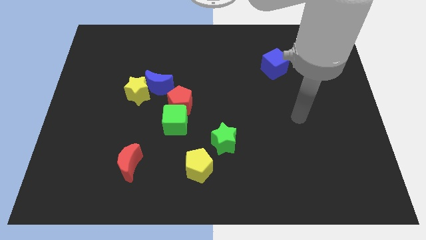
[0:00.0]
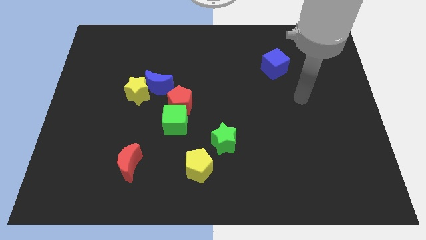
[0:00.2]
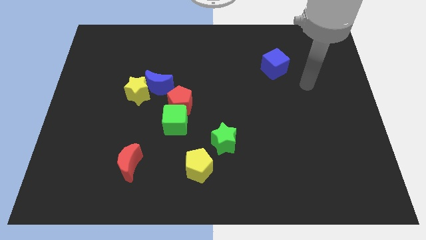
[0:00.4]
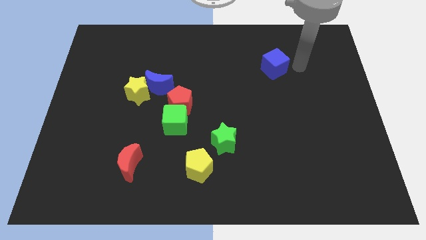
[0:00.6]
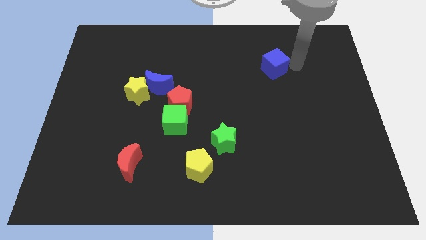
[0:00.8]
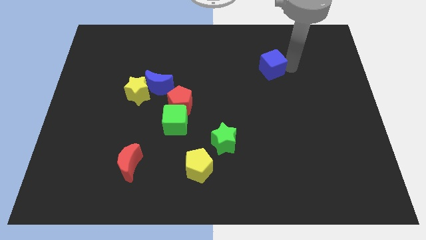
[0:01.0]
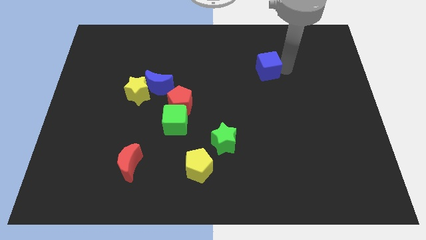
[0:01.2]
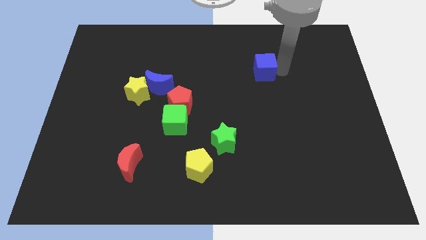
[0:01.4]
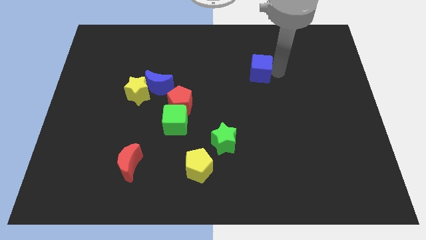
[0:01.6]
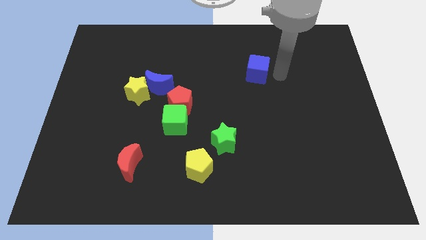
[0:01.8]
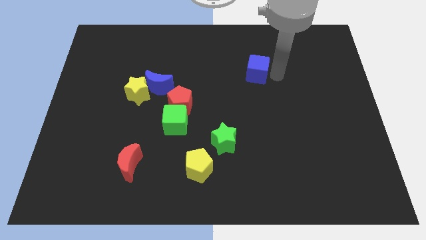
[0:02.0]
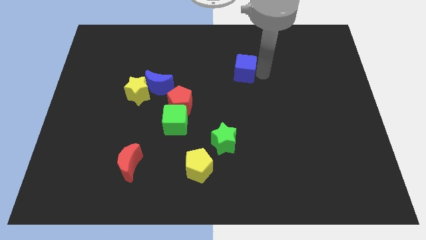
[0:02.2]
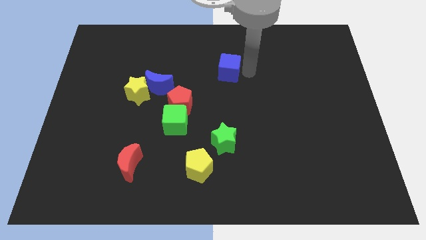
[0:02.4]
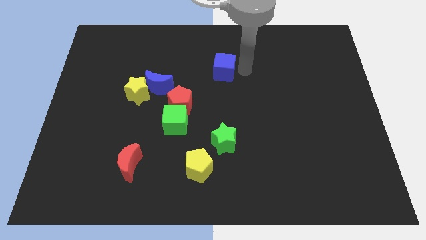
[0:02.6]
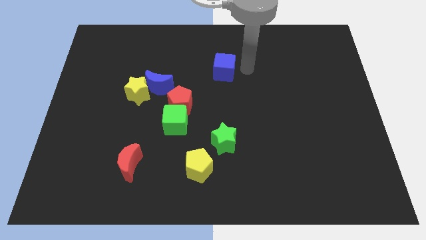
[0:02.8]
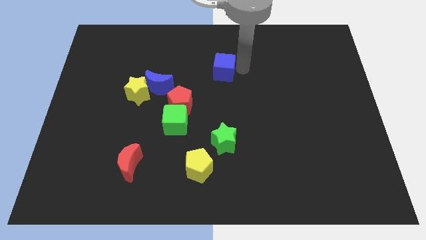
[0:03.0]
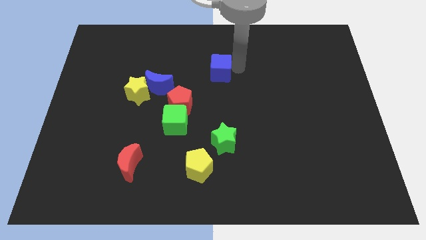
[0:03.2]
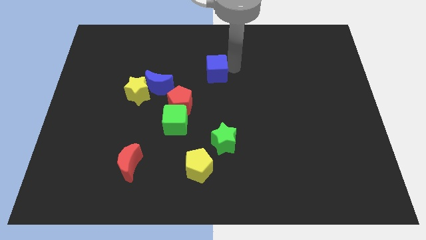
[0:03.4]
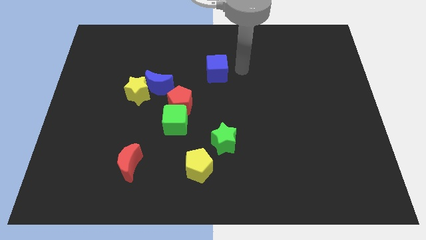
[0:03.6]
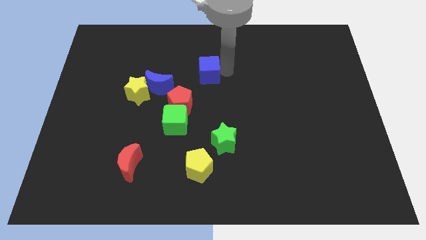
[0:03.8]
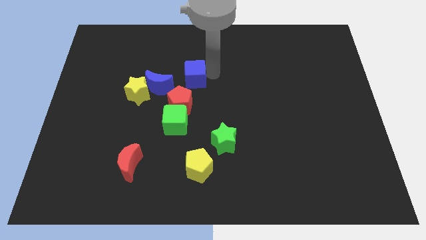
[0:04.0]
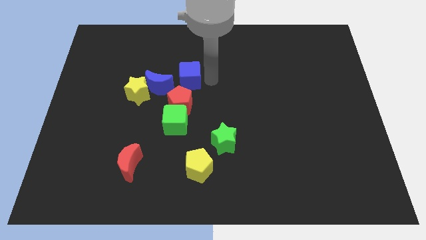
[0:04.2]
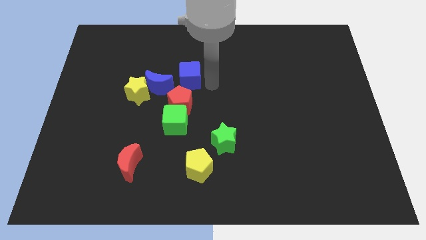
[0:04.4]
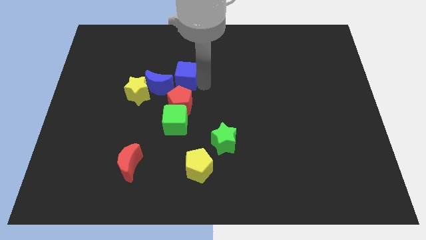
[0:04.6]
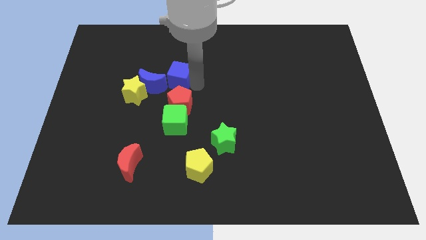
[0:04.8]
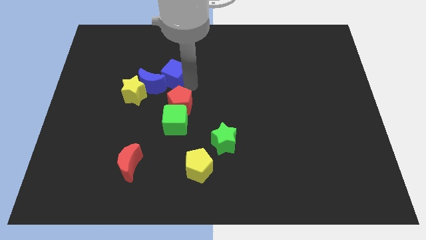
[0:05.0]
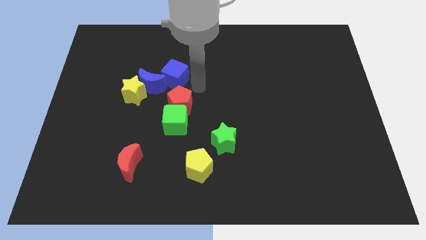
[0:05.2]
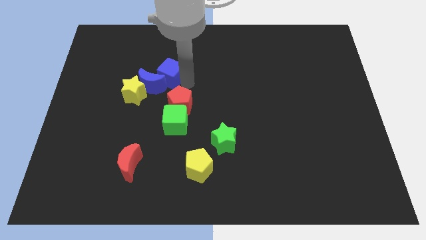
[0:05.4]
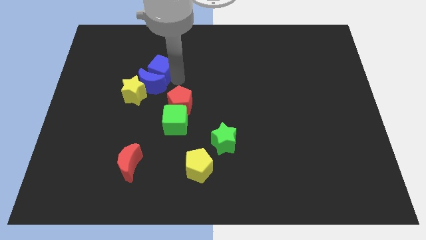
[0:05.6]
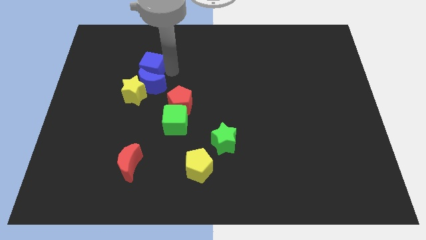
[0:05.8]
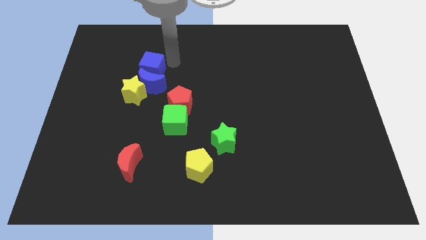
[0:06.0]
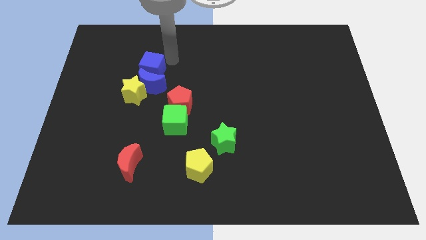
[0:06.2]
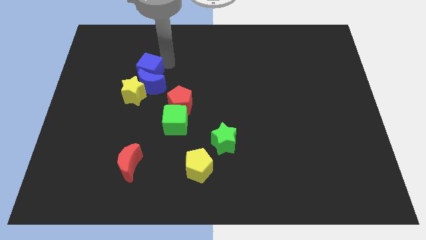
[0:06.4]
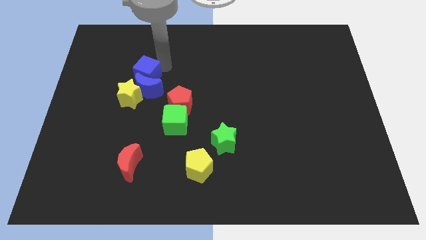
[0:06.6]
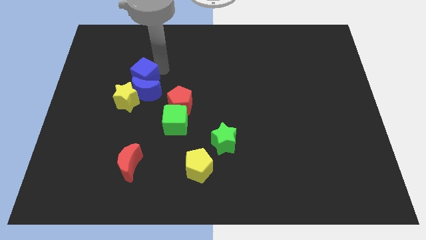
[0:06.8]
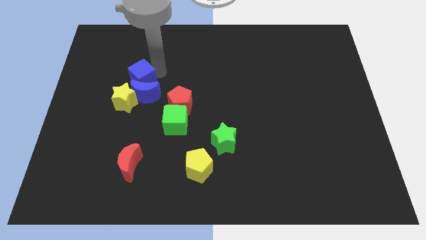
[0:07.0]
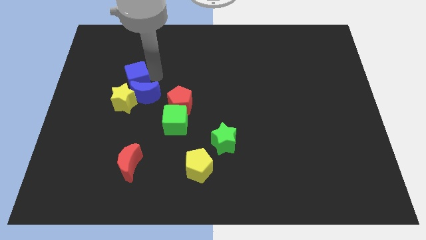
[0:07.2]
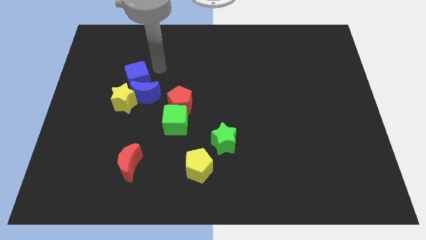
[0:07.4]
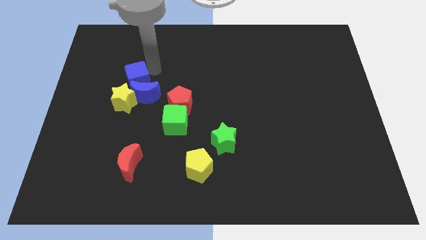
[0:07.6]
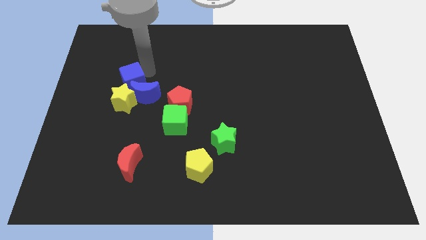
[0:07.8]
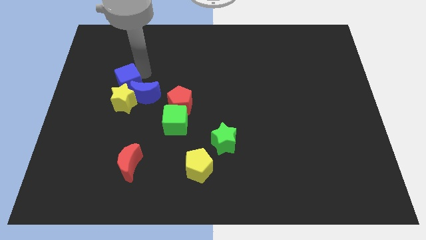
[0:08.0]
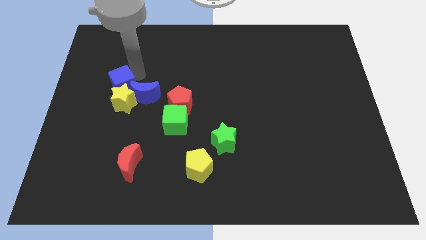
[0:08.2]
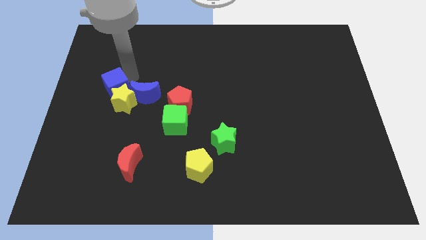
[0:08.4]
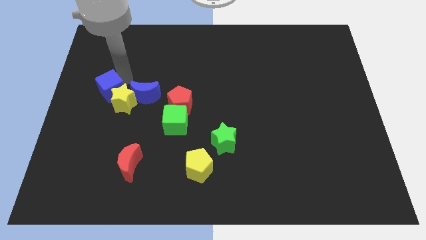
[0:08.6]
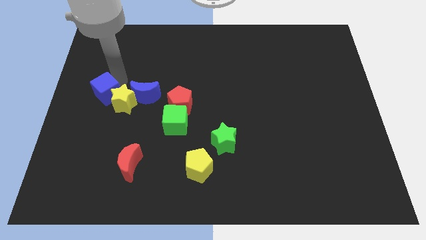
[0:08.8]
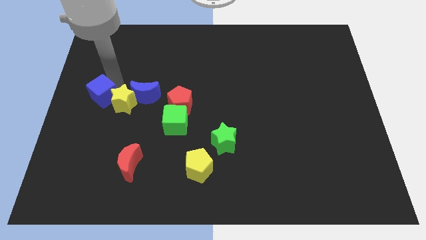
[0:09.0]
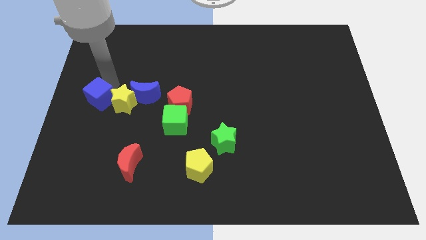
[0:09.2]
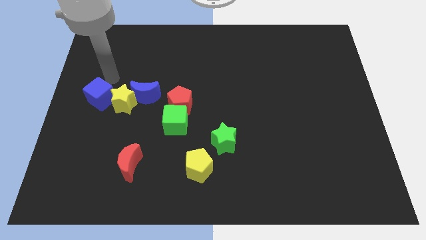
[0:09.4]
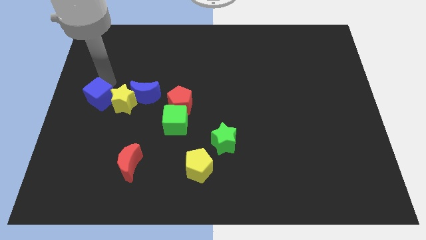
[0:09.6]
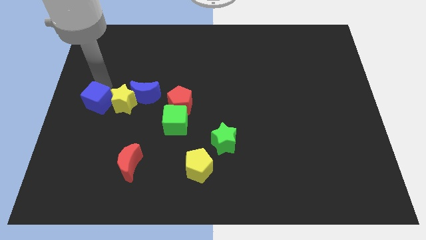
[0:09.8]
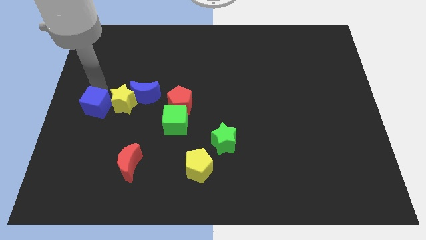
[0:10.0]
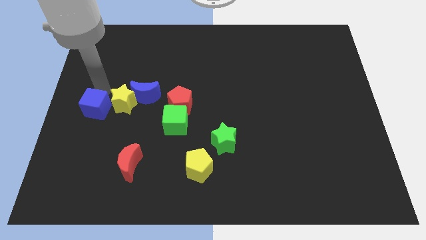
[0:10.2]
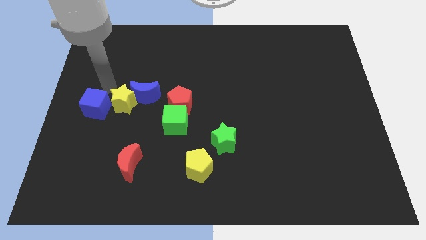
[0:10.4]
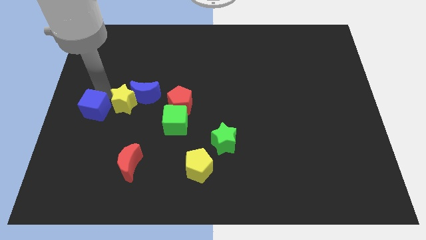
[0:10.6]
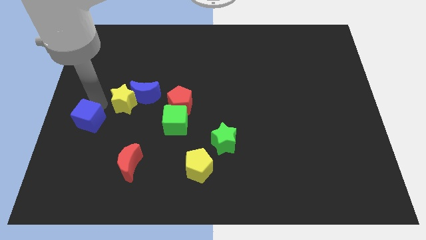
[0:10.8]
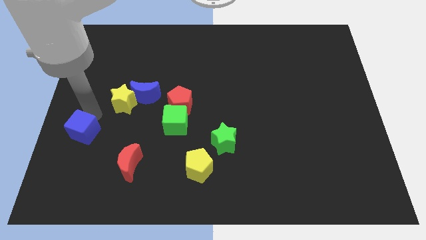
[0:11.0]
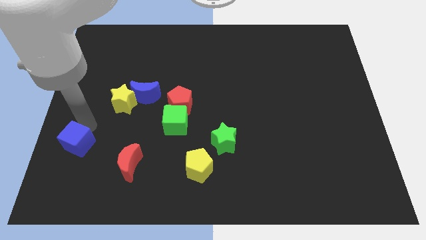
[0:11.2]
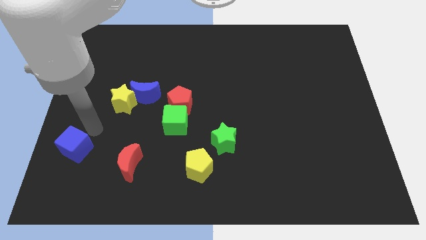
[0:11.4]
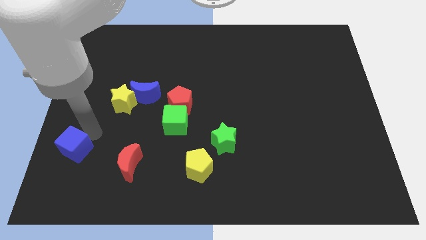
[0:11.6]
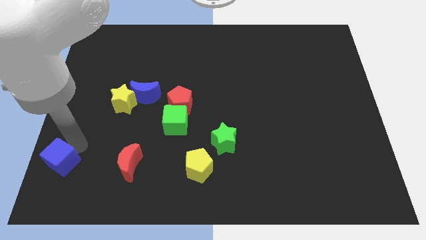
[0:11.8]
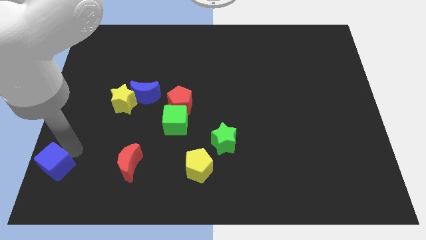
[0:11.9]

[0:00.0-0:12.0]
slide the blue cube to the bottom left corner
